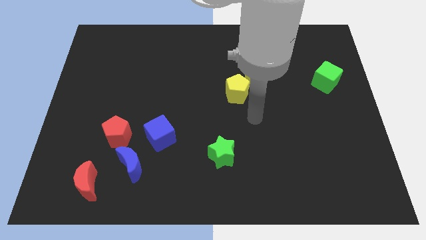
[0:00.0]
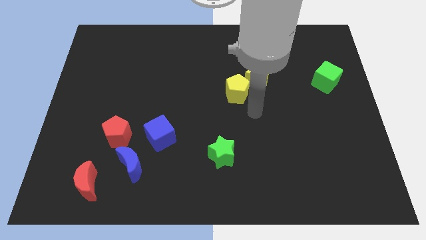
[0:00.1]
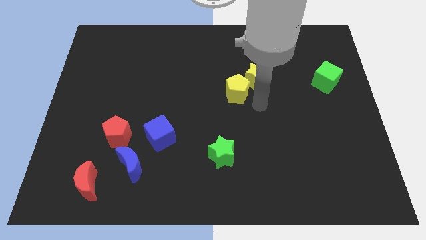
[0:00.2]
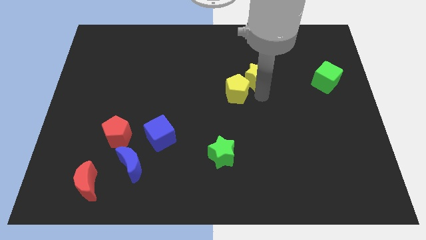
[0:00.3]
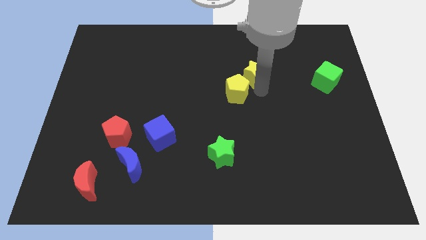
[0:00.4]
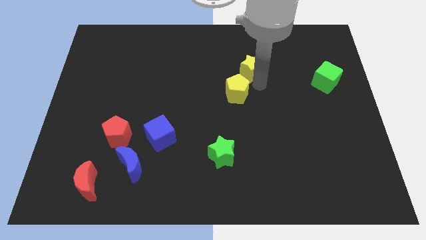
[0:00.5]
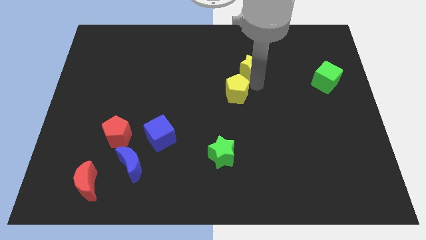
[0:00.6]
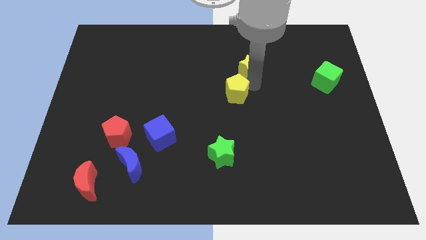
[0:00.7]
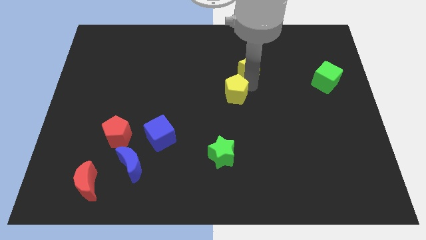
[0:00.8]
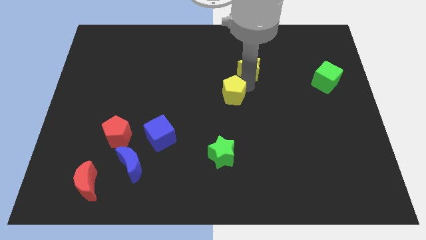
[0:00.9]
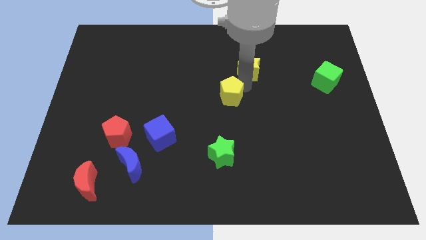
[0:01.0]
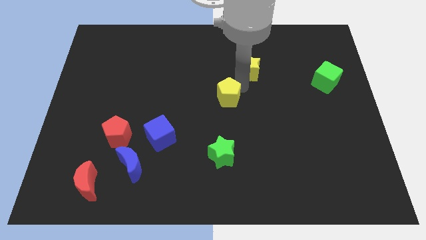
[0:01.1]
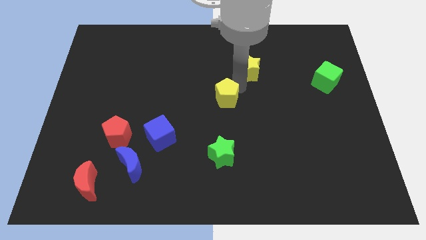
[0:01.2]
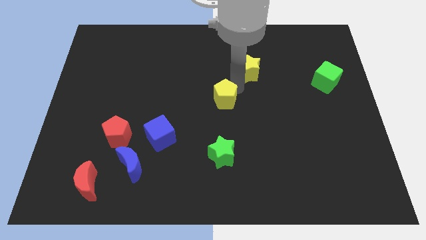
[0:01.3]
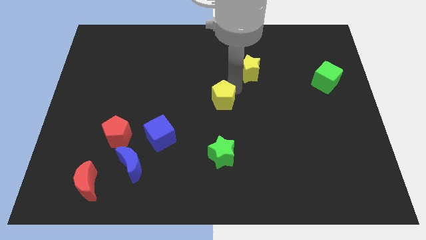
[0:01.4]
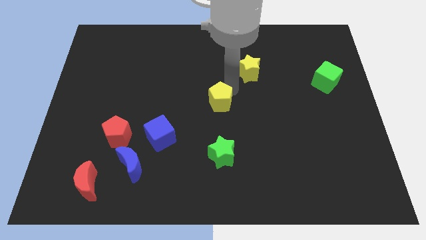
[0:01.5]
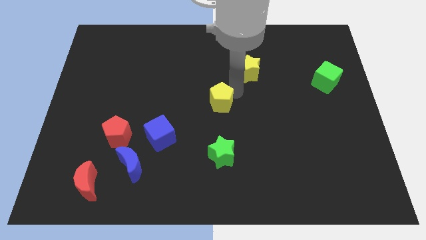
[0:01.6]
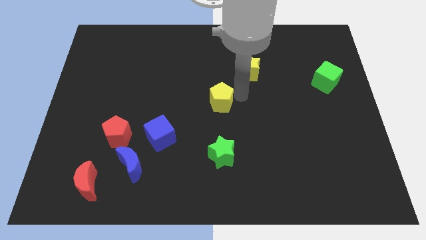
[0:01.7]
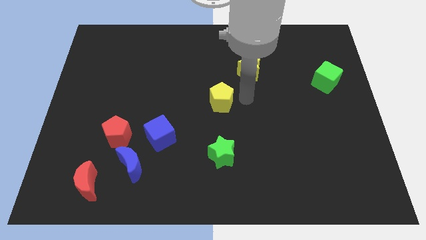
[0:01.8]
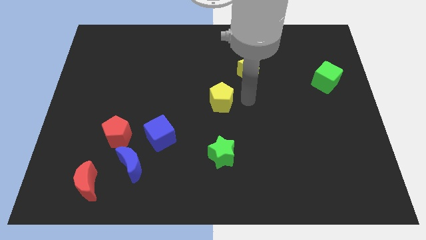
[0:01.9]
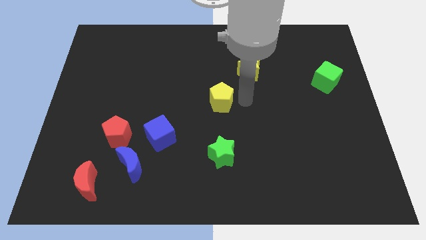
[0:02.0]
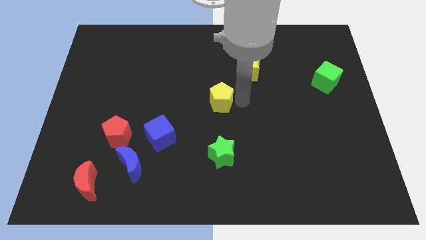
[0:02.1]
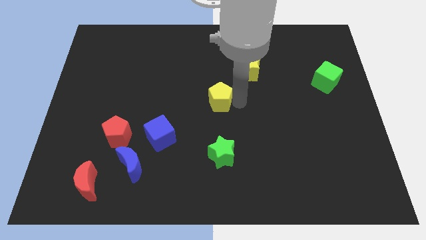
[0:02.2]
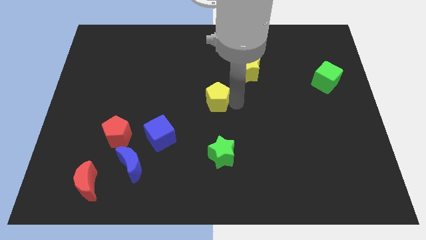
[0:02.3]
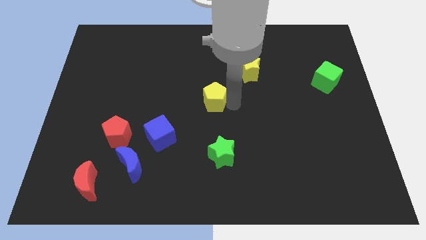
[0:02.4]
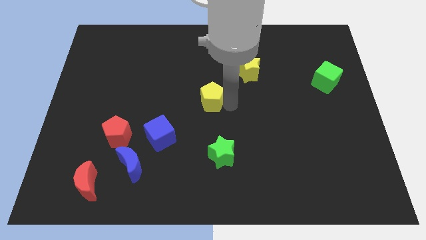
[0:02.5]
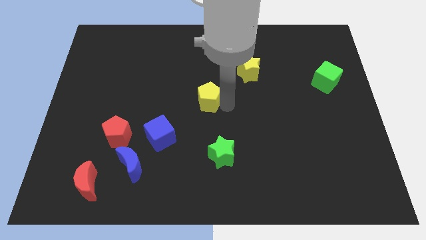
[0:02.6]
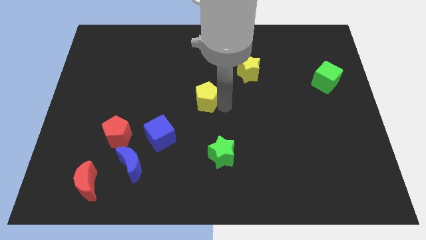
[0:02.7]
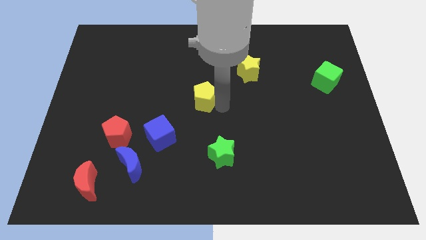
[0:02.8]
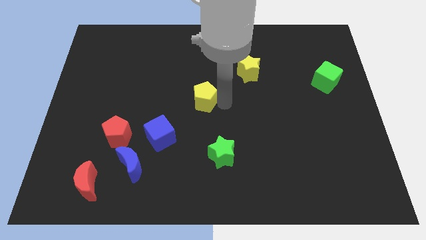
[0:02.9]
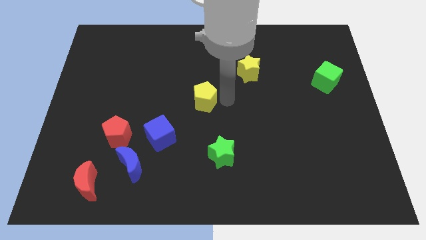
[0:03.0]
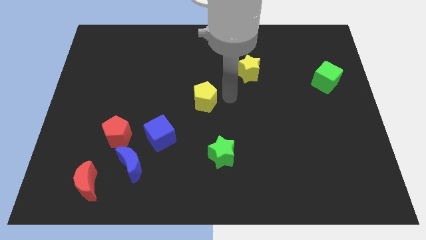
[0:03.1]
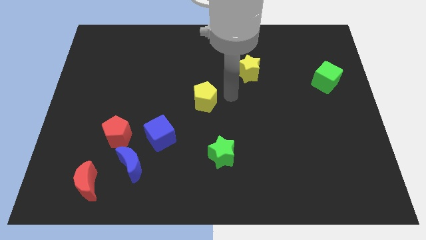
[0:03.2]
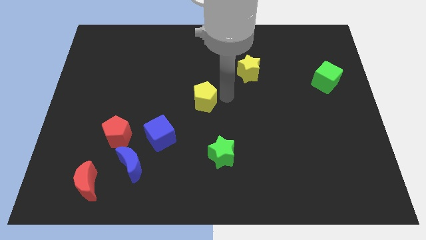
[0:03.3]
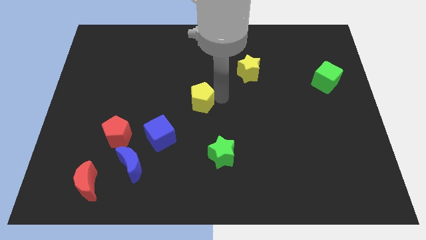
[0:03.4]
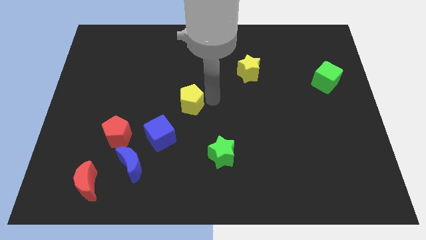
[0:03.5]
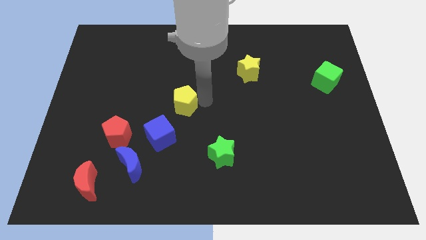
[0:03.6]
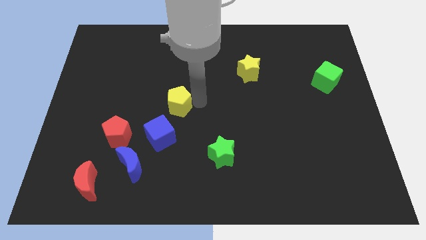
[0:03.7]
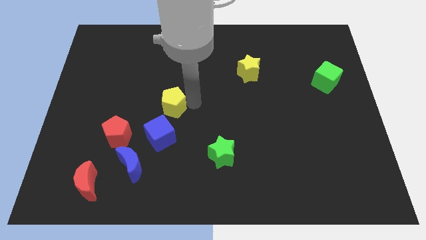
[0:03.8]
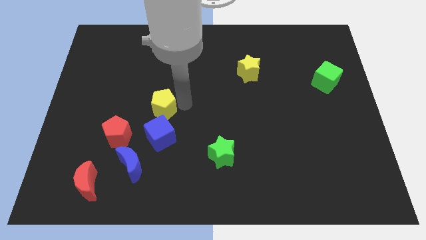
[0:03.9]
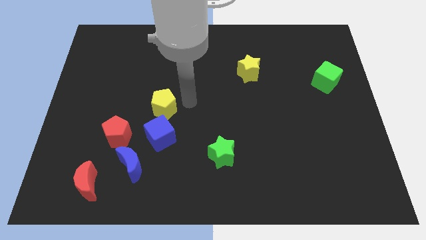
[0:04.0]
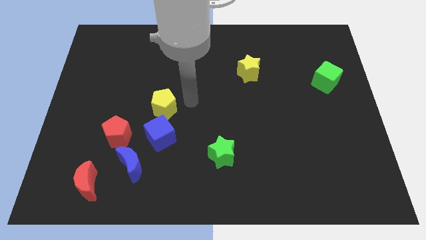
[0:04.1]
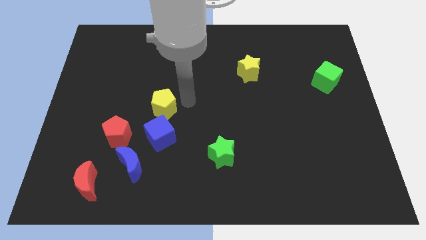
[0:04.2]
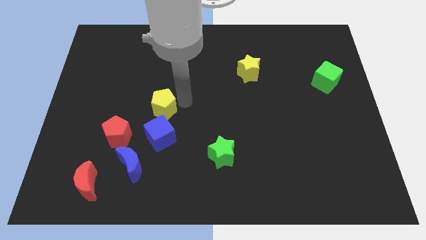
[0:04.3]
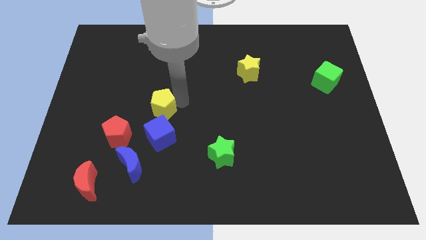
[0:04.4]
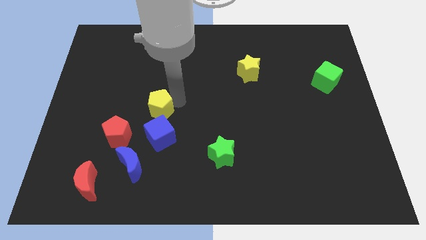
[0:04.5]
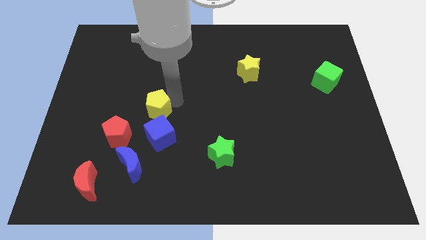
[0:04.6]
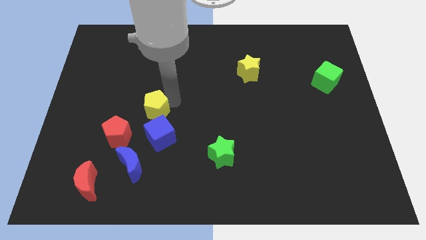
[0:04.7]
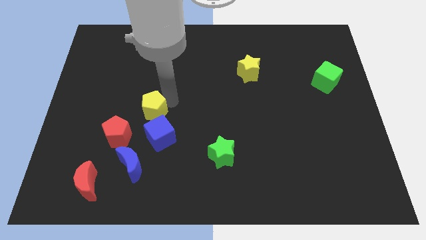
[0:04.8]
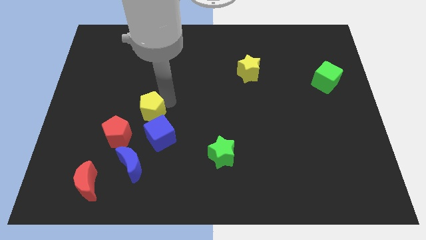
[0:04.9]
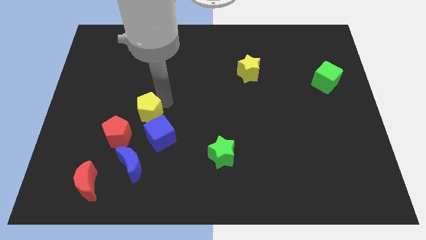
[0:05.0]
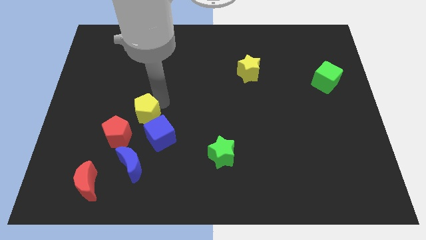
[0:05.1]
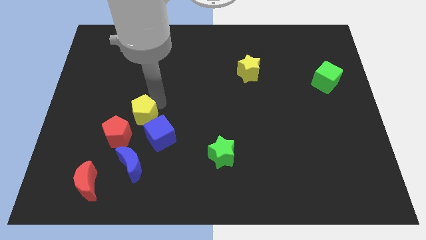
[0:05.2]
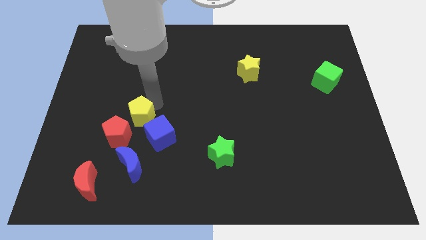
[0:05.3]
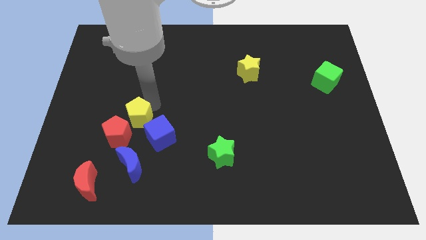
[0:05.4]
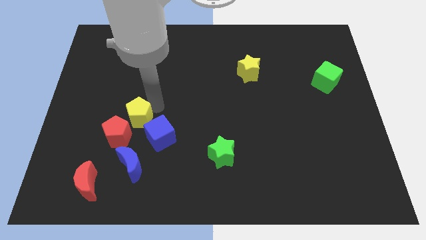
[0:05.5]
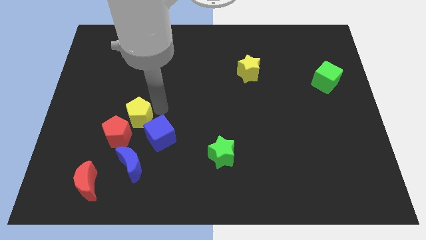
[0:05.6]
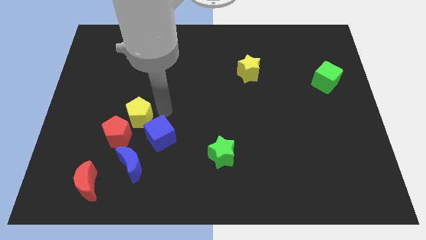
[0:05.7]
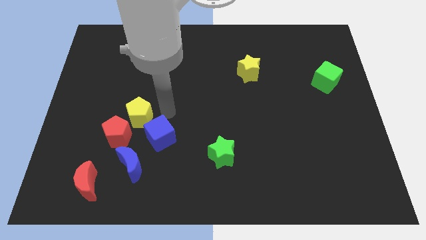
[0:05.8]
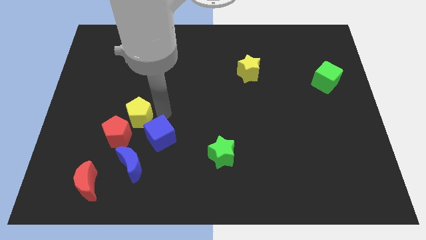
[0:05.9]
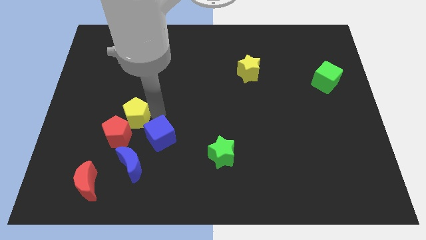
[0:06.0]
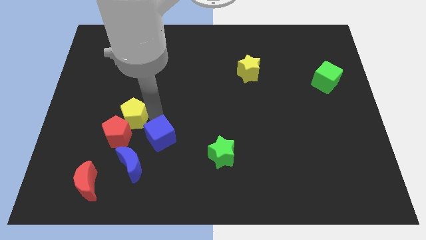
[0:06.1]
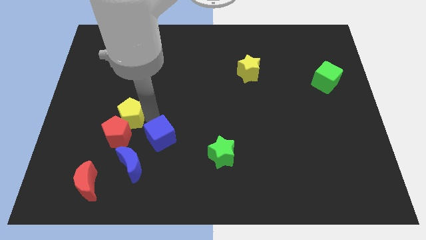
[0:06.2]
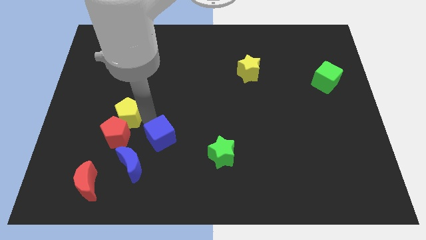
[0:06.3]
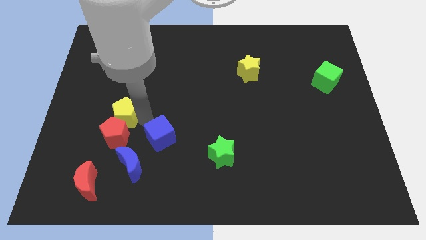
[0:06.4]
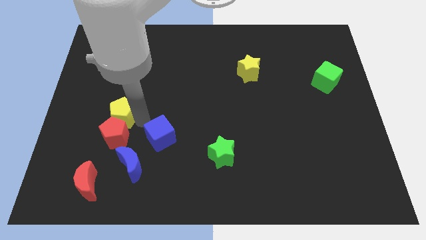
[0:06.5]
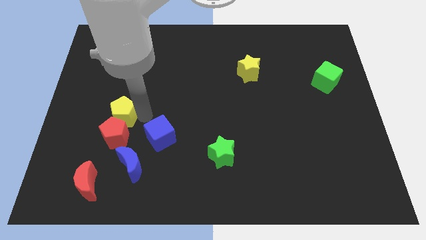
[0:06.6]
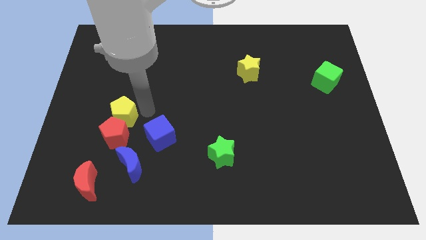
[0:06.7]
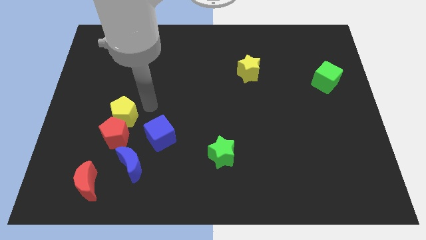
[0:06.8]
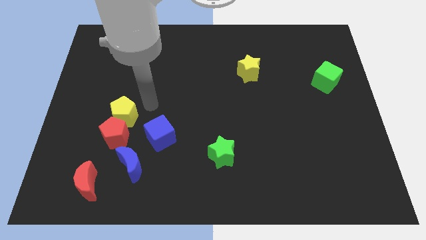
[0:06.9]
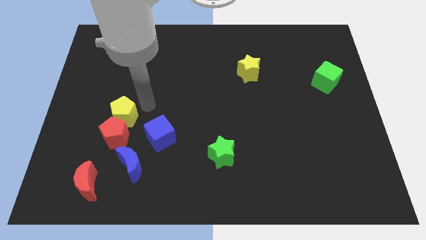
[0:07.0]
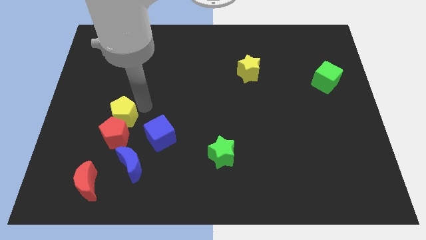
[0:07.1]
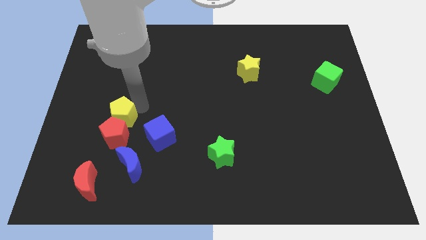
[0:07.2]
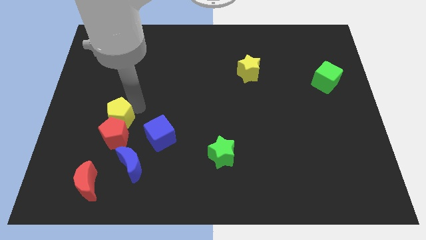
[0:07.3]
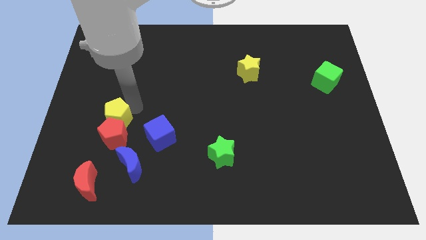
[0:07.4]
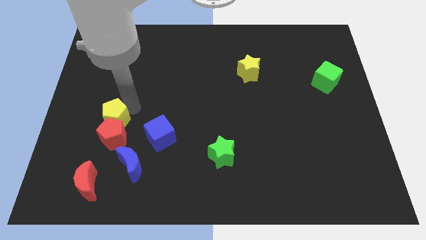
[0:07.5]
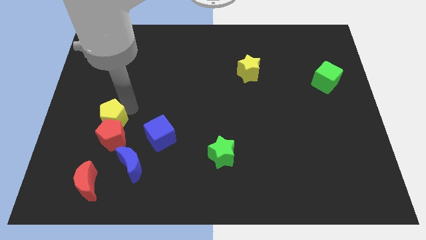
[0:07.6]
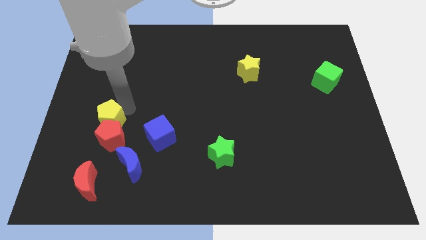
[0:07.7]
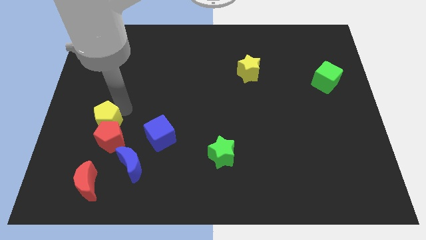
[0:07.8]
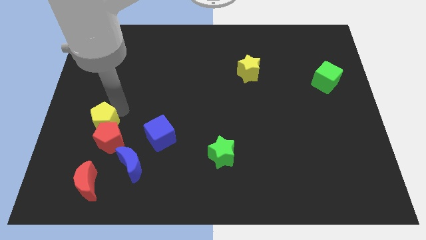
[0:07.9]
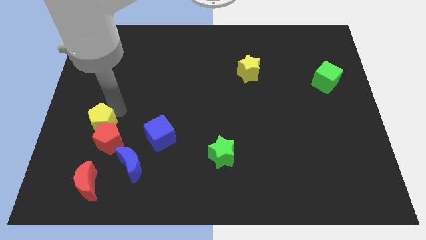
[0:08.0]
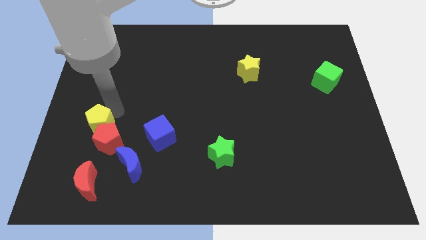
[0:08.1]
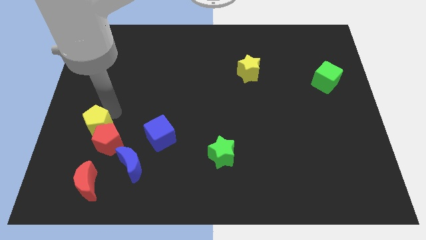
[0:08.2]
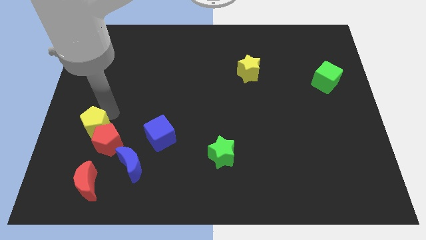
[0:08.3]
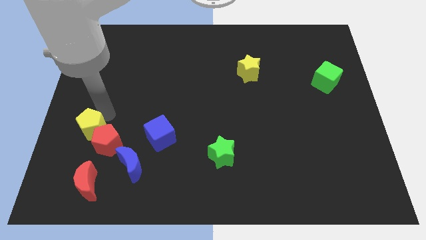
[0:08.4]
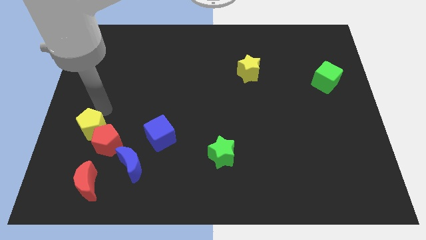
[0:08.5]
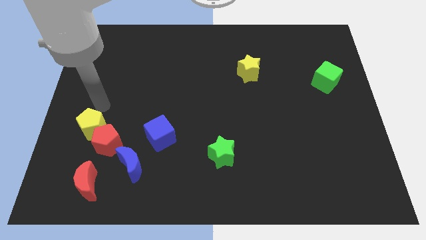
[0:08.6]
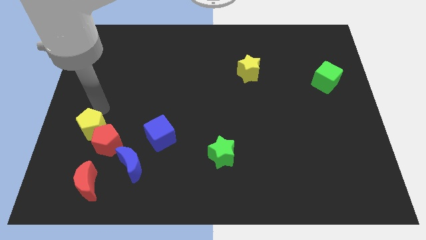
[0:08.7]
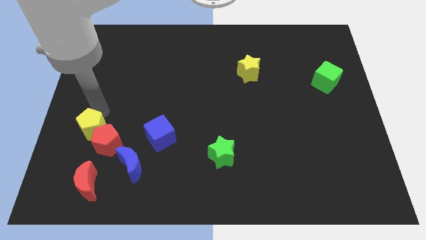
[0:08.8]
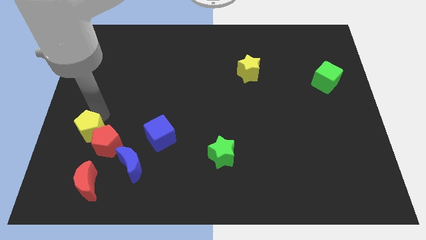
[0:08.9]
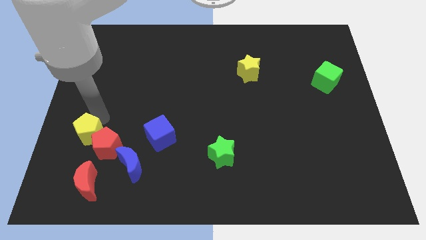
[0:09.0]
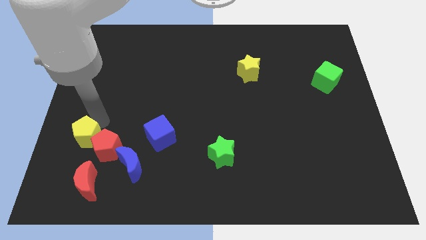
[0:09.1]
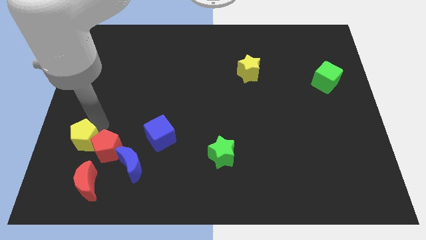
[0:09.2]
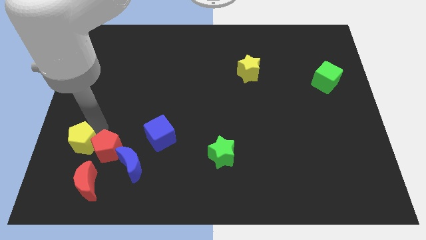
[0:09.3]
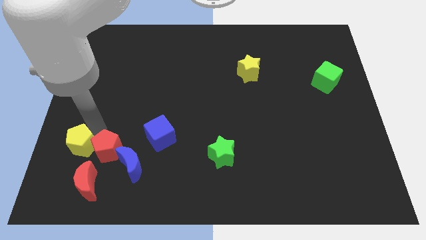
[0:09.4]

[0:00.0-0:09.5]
move the yellow pentagon diagonally down and to the left of the red pentagon
